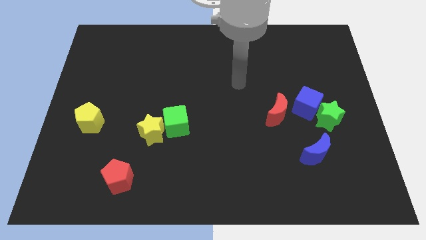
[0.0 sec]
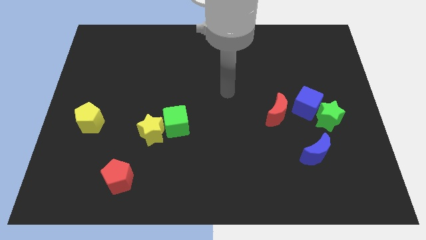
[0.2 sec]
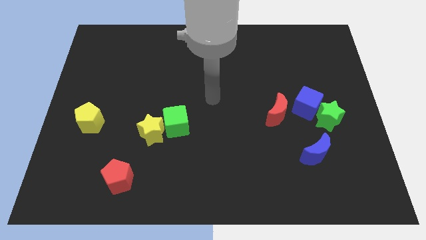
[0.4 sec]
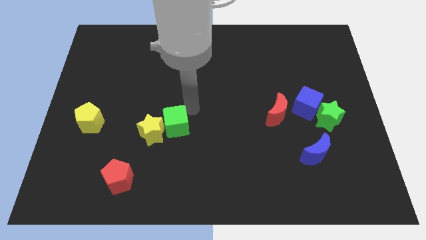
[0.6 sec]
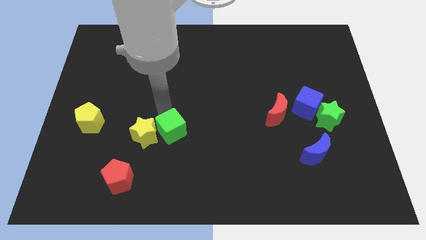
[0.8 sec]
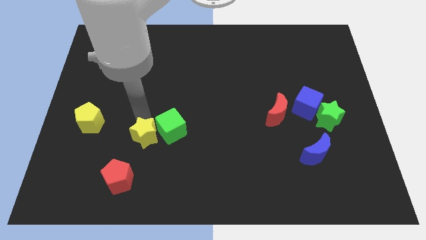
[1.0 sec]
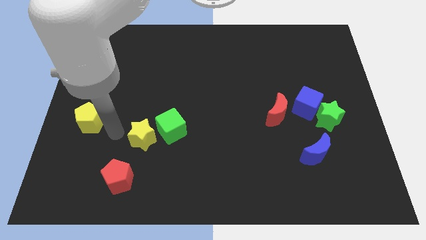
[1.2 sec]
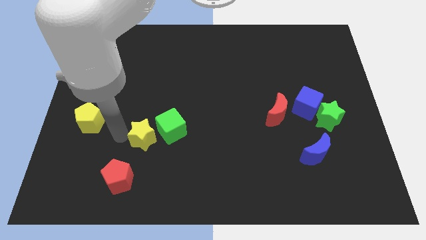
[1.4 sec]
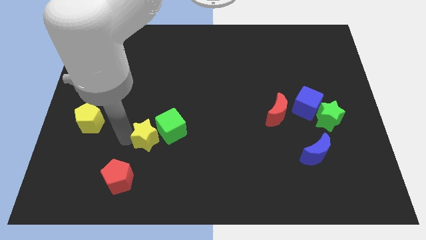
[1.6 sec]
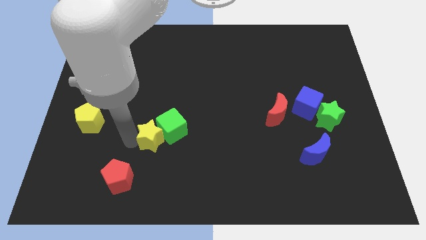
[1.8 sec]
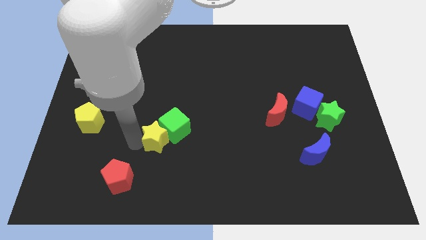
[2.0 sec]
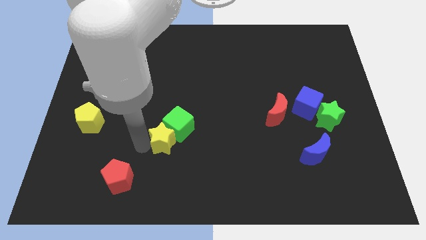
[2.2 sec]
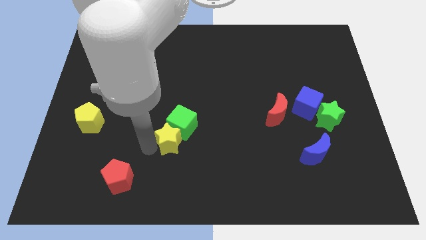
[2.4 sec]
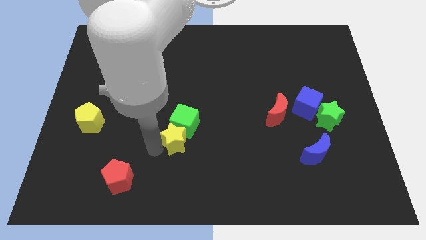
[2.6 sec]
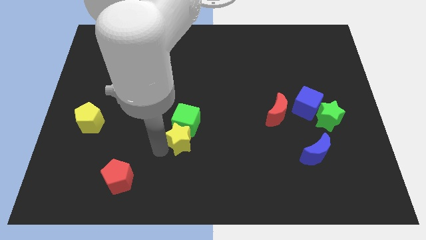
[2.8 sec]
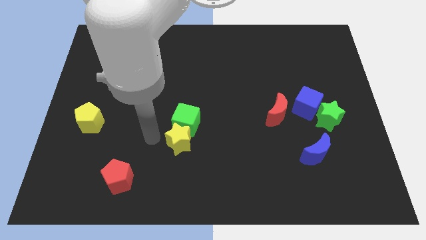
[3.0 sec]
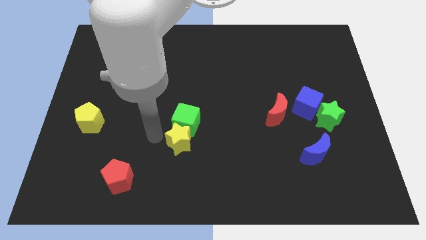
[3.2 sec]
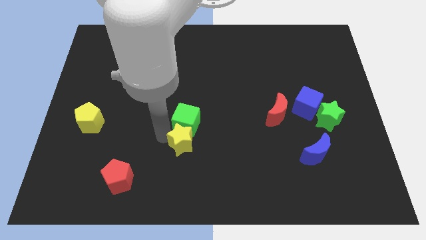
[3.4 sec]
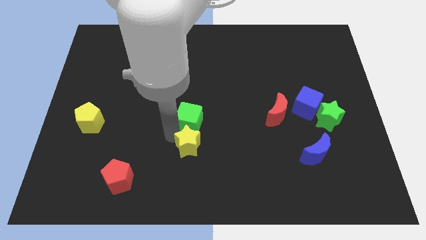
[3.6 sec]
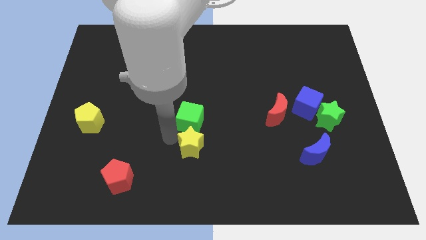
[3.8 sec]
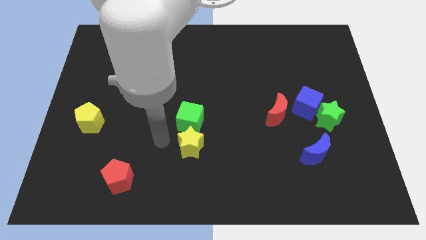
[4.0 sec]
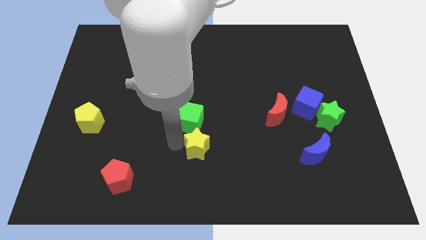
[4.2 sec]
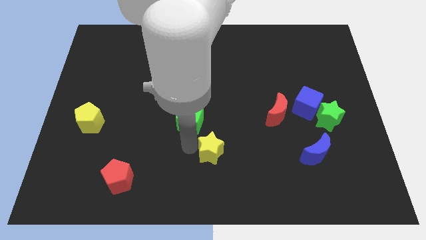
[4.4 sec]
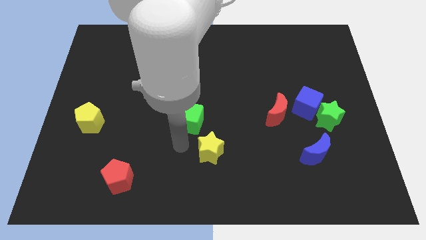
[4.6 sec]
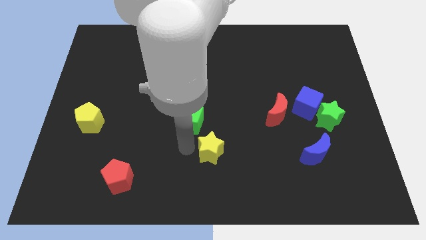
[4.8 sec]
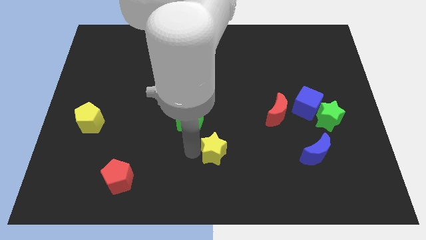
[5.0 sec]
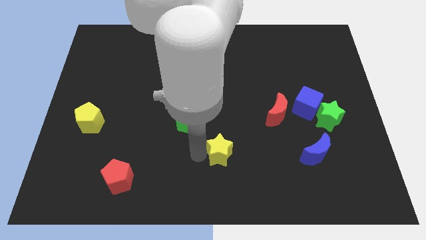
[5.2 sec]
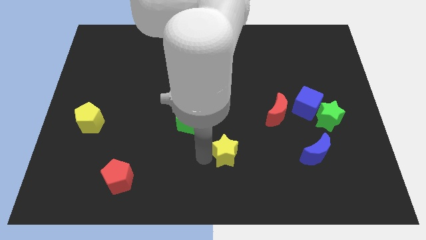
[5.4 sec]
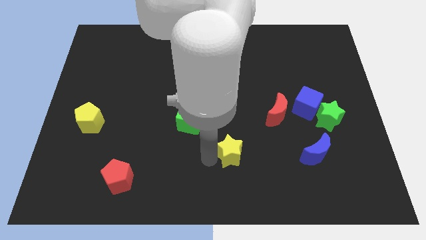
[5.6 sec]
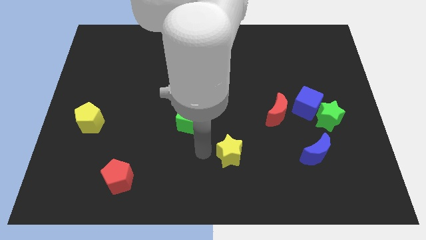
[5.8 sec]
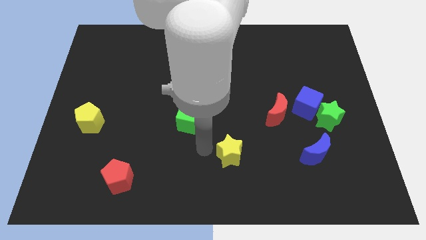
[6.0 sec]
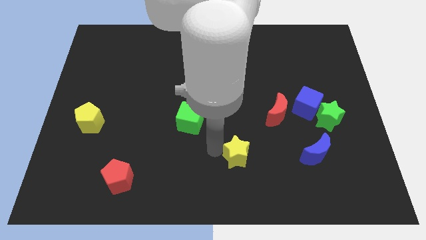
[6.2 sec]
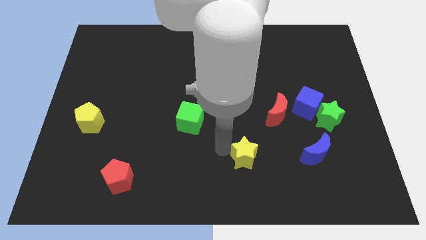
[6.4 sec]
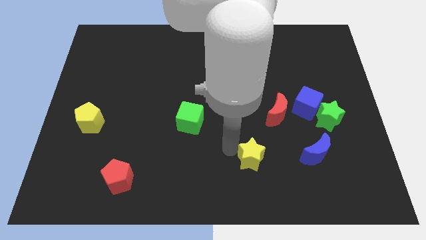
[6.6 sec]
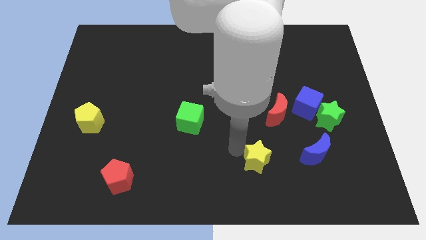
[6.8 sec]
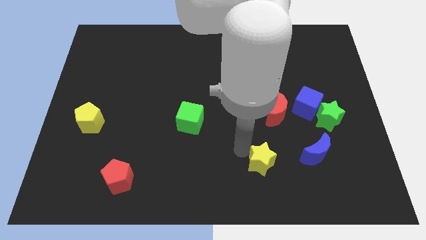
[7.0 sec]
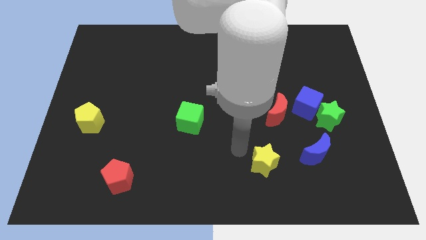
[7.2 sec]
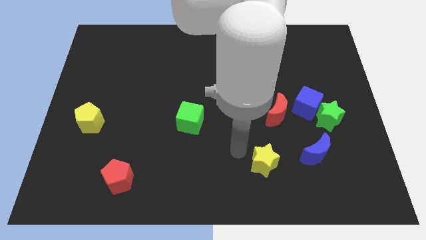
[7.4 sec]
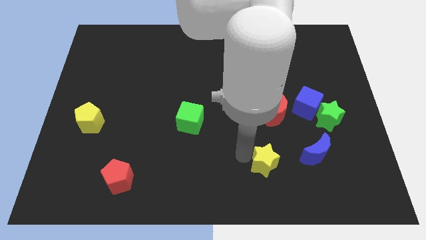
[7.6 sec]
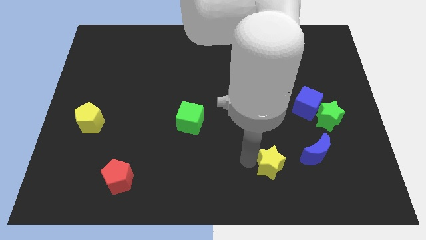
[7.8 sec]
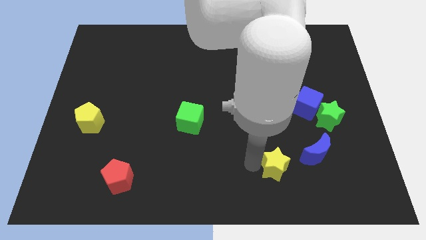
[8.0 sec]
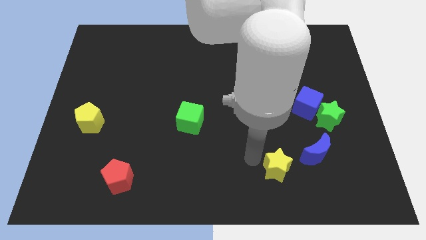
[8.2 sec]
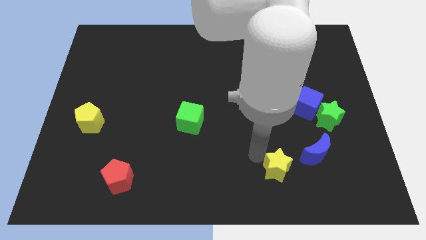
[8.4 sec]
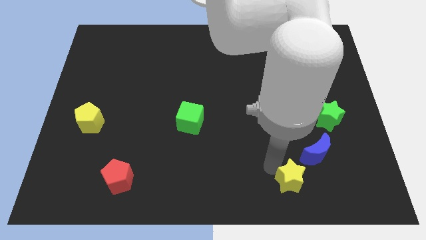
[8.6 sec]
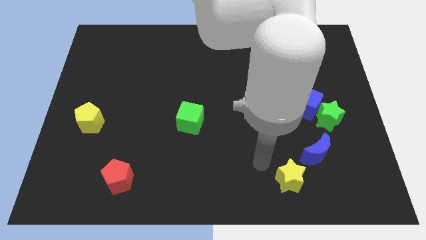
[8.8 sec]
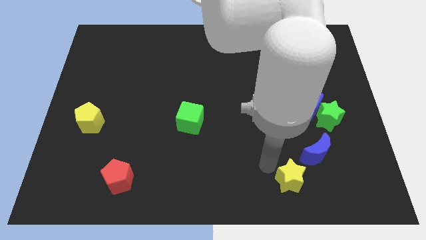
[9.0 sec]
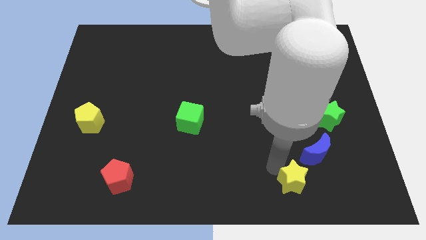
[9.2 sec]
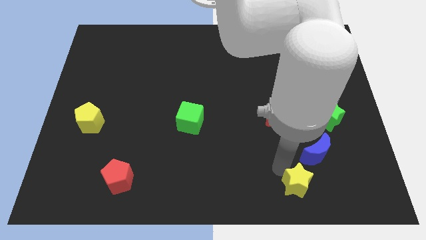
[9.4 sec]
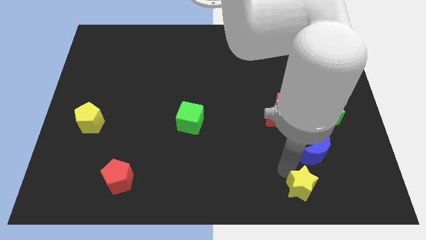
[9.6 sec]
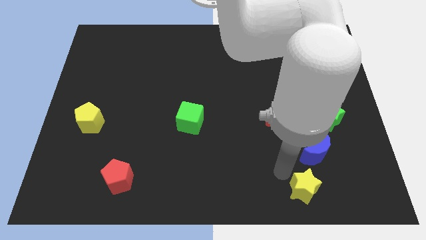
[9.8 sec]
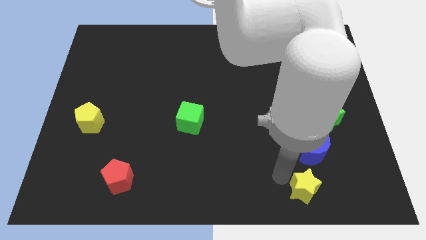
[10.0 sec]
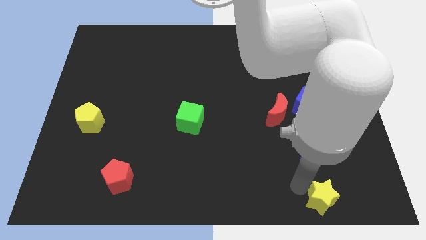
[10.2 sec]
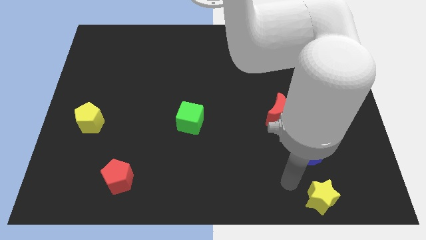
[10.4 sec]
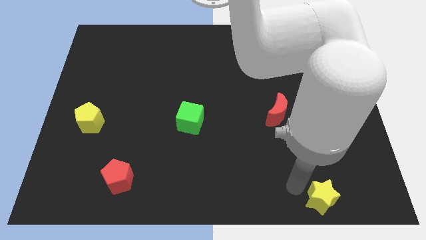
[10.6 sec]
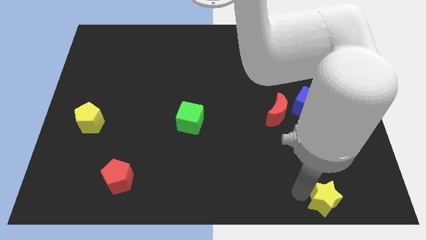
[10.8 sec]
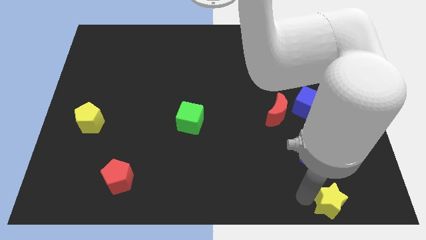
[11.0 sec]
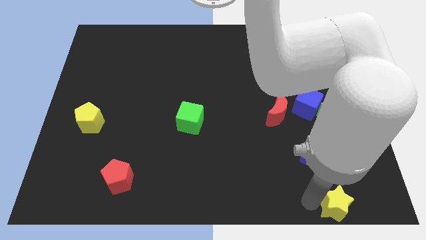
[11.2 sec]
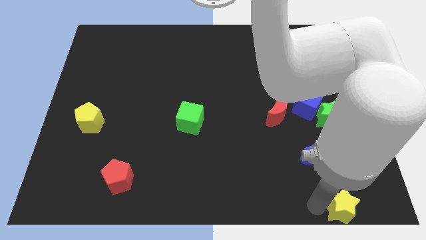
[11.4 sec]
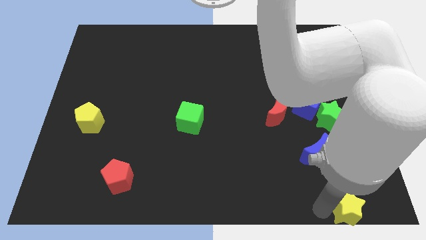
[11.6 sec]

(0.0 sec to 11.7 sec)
put the yellow star to the bottom right
